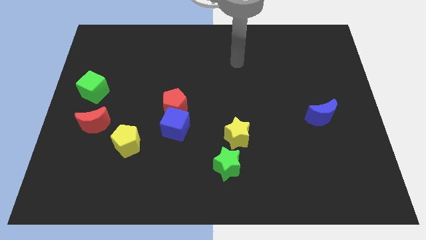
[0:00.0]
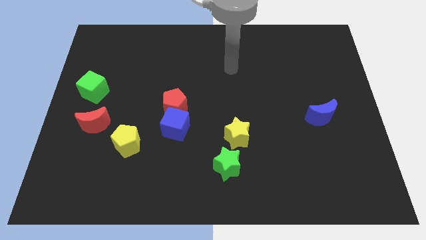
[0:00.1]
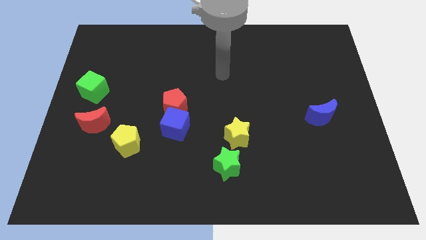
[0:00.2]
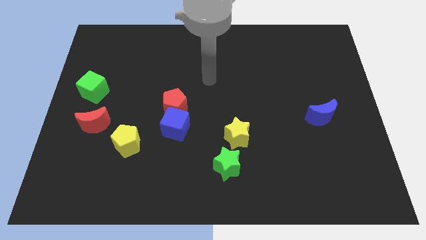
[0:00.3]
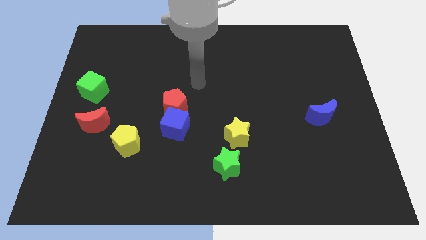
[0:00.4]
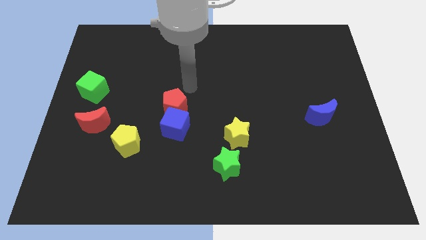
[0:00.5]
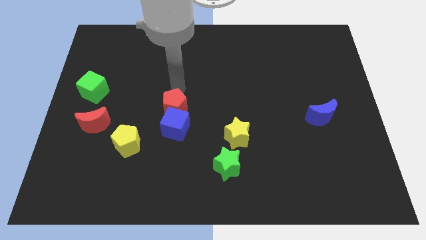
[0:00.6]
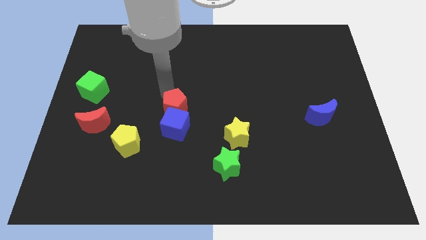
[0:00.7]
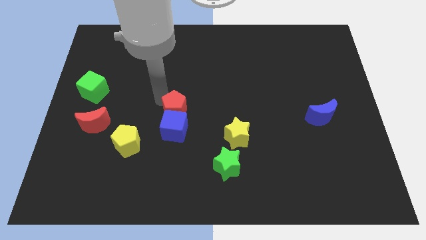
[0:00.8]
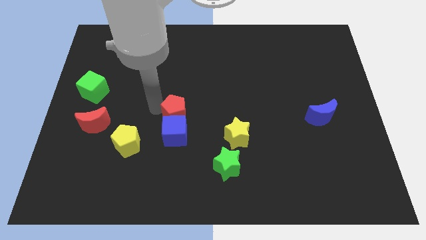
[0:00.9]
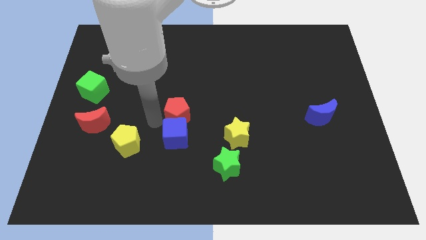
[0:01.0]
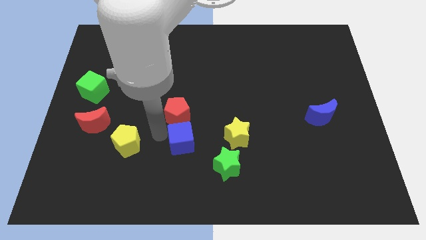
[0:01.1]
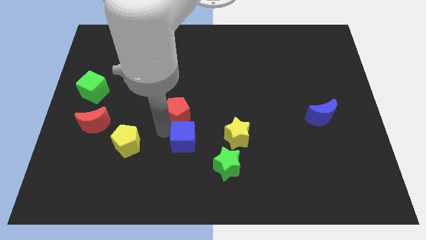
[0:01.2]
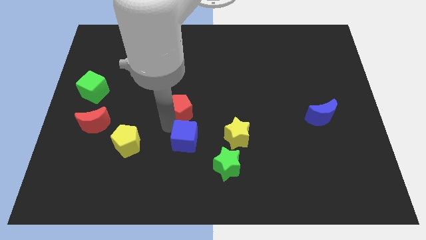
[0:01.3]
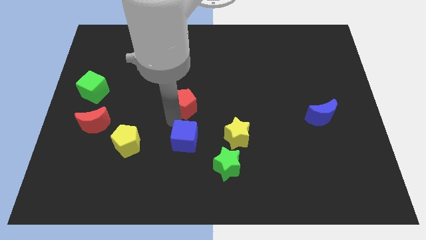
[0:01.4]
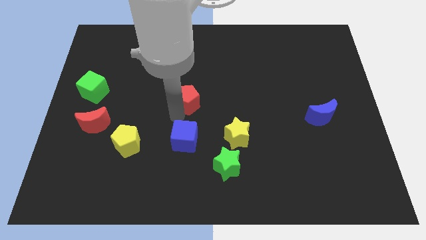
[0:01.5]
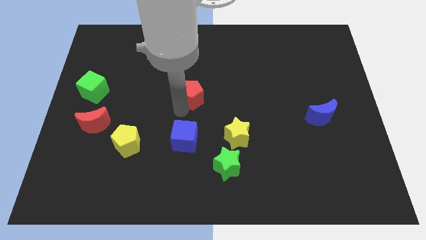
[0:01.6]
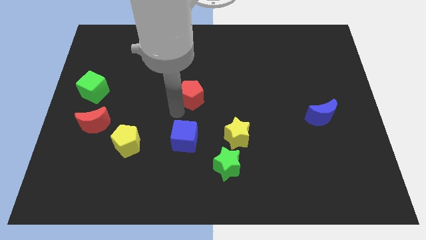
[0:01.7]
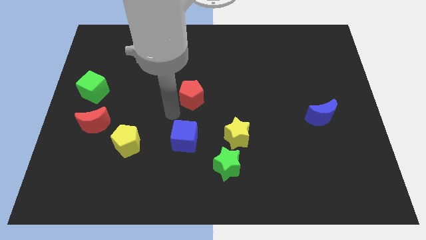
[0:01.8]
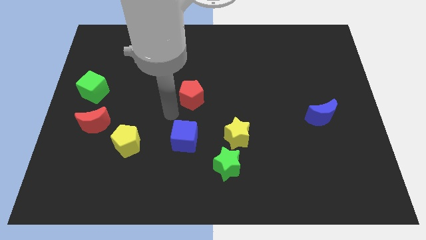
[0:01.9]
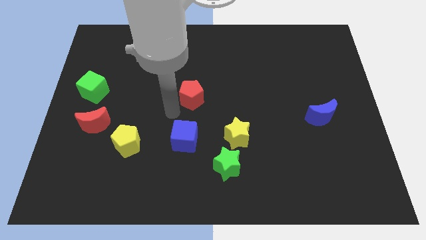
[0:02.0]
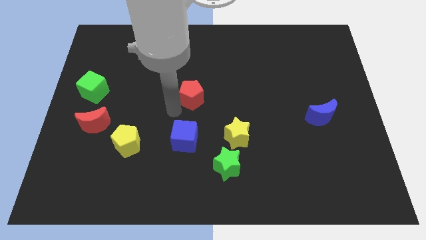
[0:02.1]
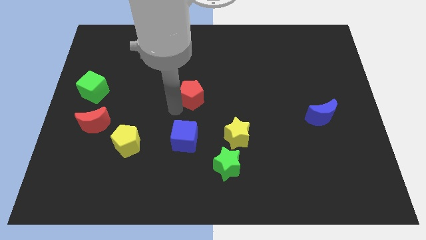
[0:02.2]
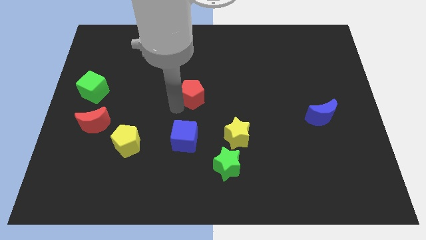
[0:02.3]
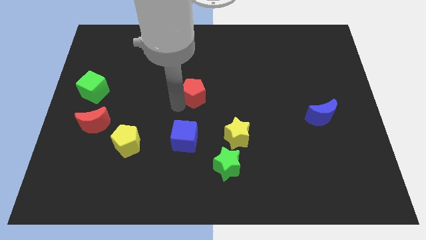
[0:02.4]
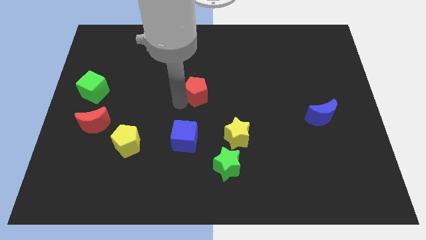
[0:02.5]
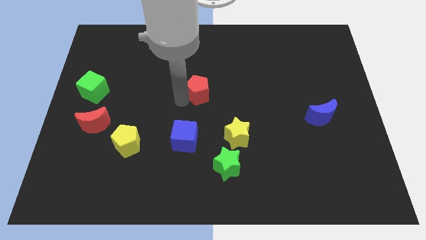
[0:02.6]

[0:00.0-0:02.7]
push the red pentagon diagonally upwards and to the right a little bit

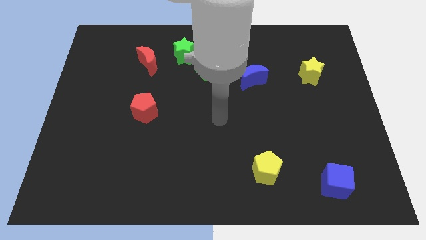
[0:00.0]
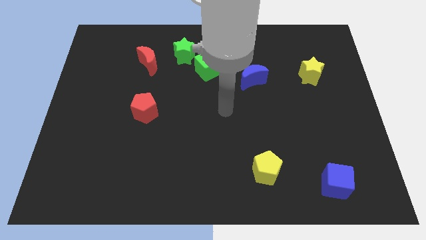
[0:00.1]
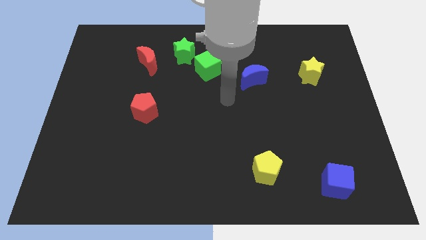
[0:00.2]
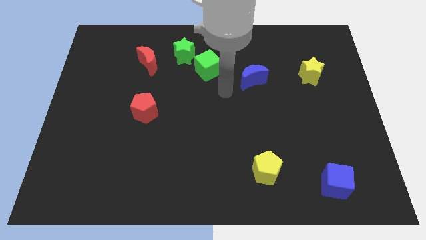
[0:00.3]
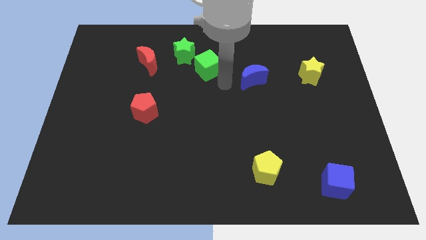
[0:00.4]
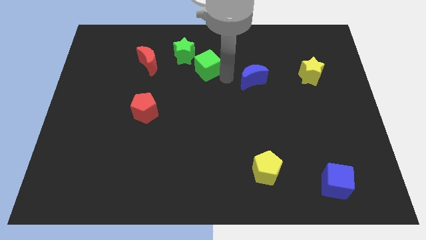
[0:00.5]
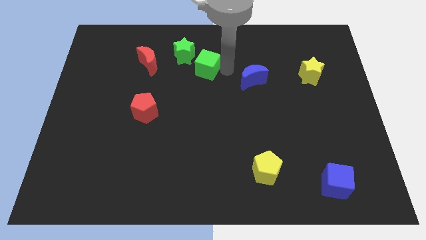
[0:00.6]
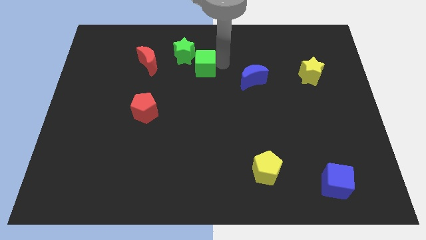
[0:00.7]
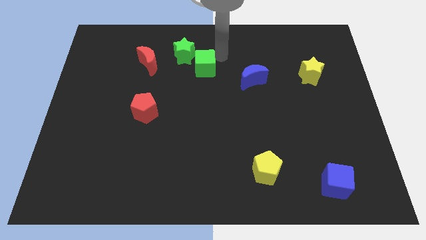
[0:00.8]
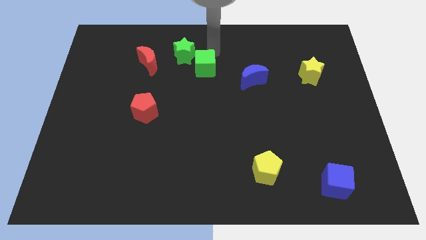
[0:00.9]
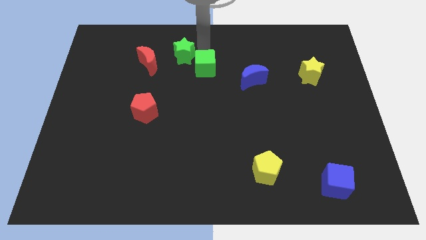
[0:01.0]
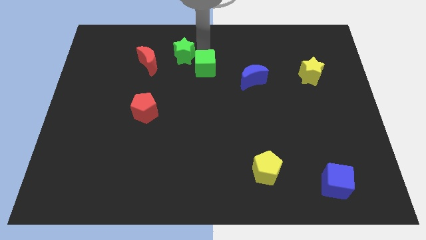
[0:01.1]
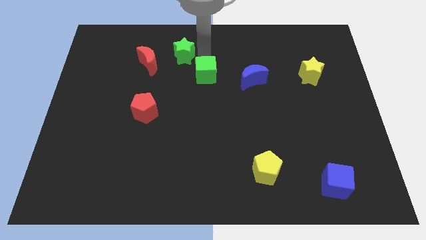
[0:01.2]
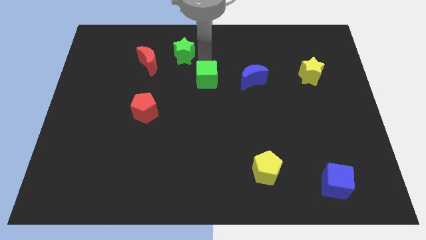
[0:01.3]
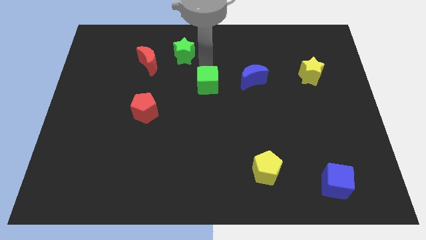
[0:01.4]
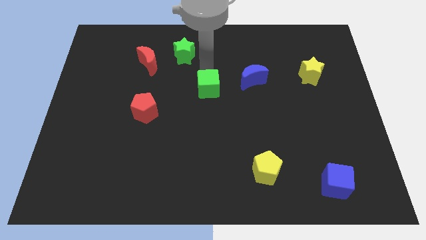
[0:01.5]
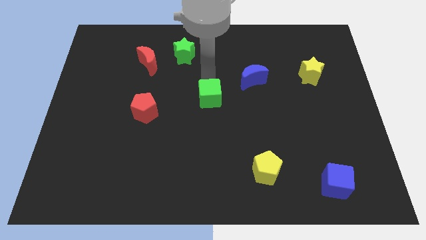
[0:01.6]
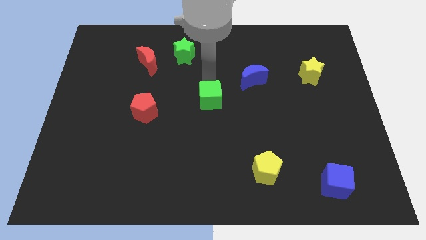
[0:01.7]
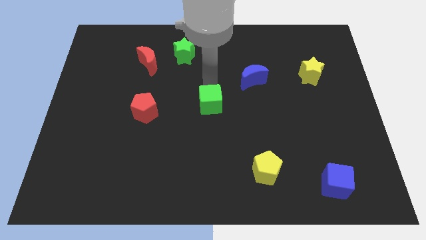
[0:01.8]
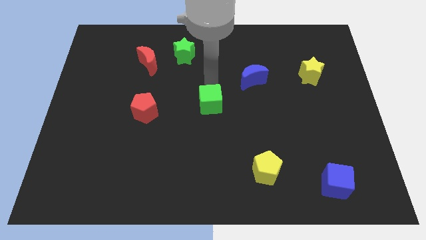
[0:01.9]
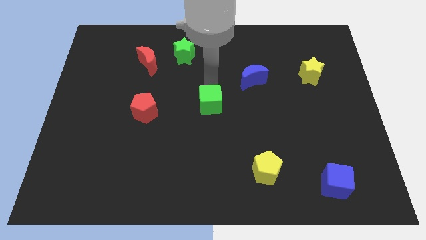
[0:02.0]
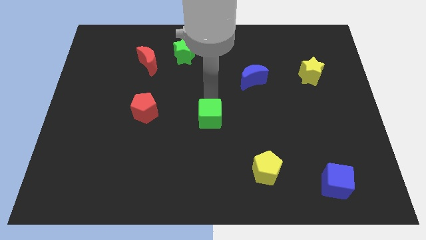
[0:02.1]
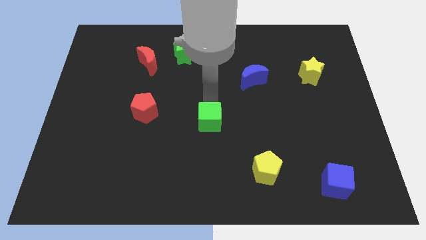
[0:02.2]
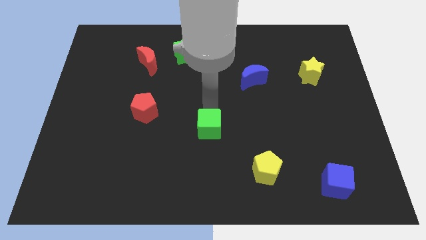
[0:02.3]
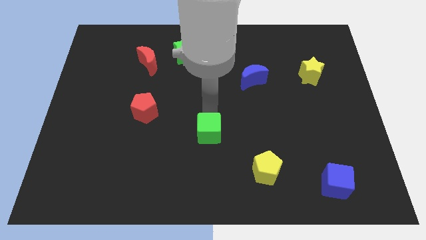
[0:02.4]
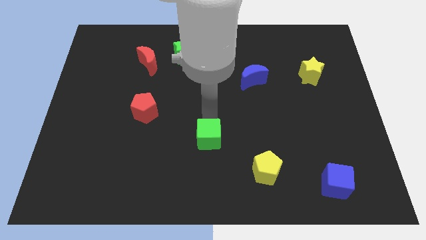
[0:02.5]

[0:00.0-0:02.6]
push the green cube downwards

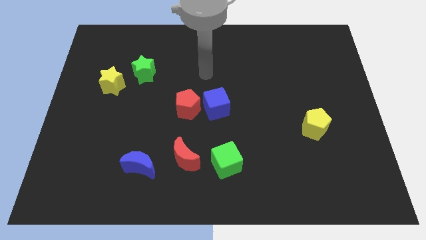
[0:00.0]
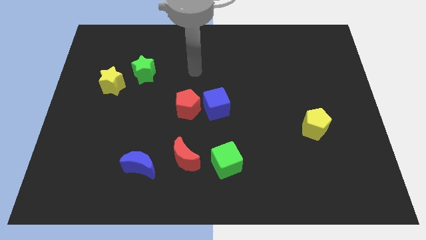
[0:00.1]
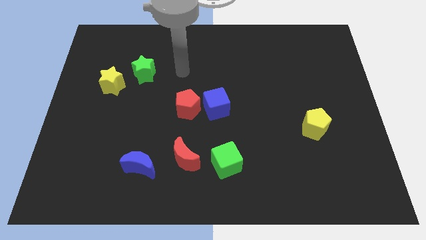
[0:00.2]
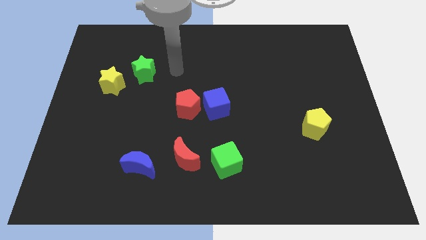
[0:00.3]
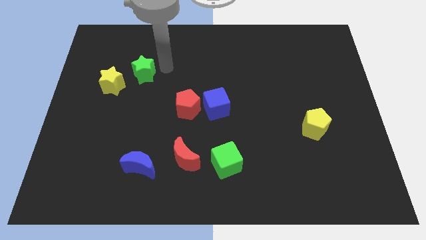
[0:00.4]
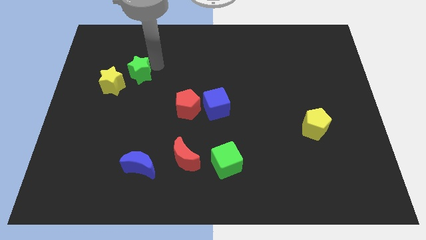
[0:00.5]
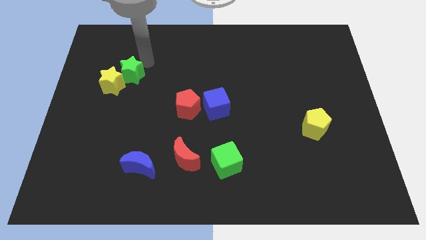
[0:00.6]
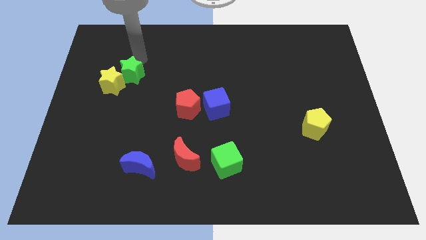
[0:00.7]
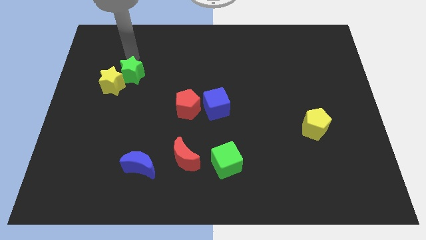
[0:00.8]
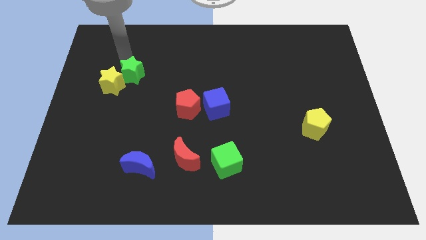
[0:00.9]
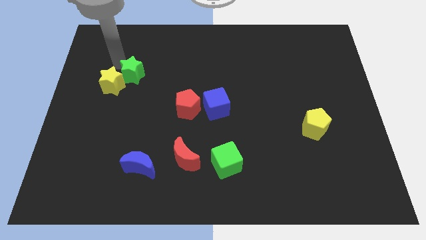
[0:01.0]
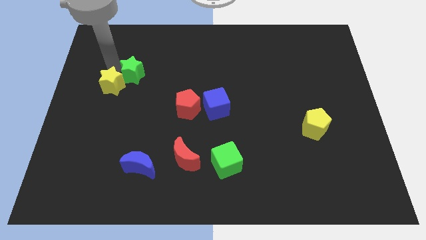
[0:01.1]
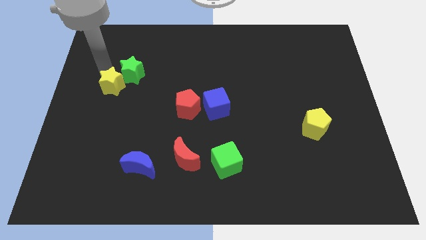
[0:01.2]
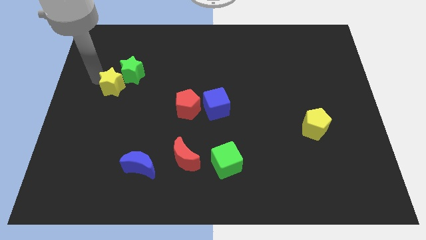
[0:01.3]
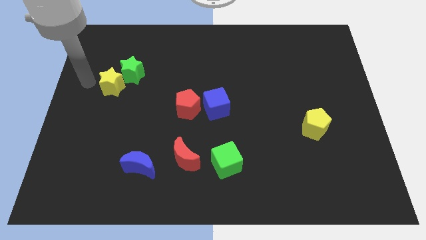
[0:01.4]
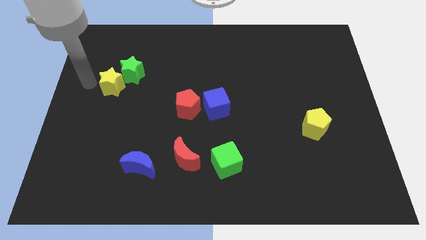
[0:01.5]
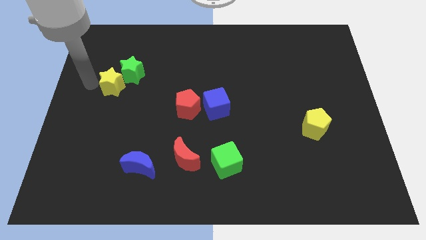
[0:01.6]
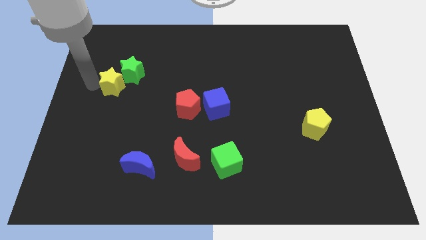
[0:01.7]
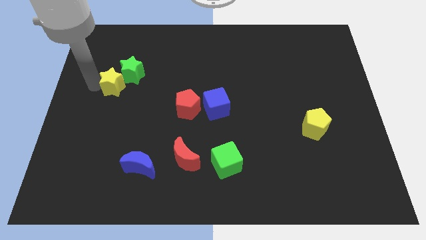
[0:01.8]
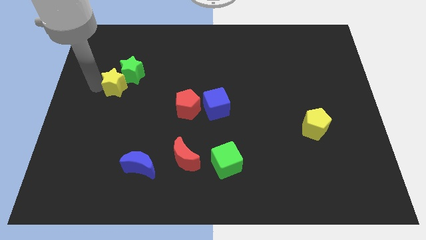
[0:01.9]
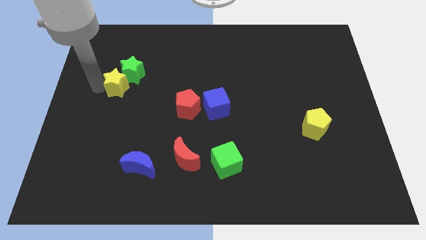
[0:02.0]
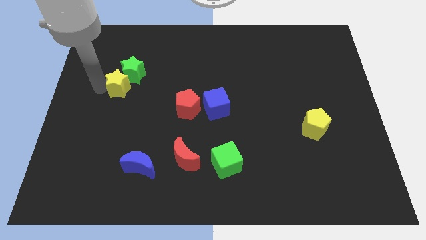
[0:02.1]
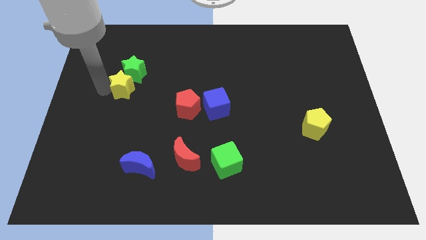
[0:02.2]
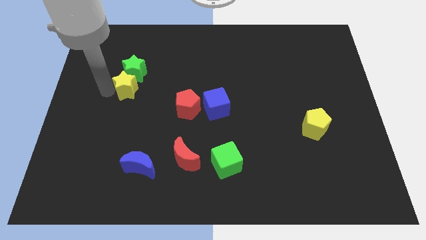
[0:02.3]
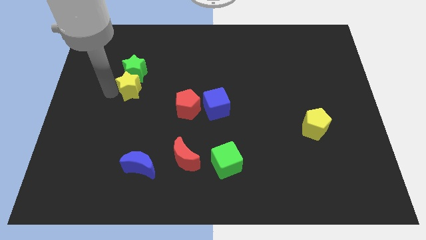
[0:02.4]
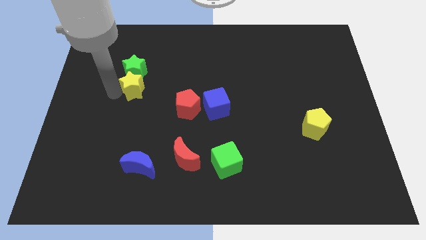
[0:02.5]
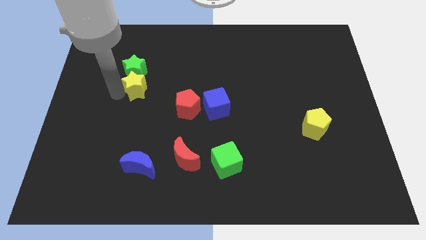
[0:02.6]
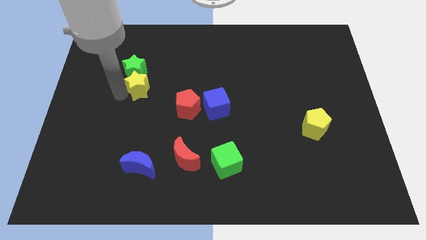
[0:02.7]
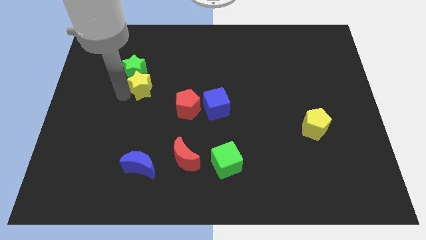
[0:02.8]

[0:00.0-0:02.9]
slightly slide the yellow star to the right

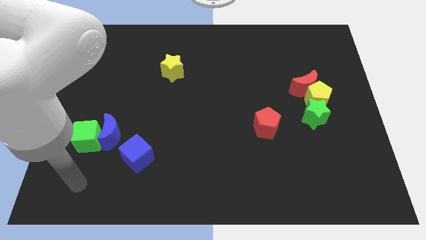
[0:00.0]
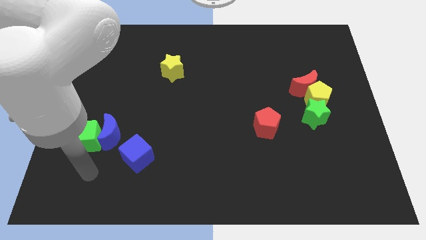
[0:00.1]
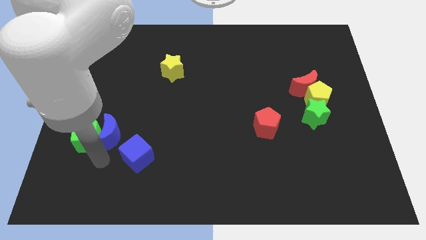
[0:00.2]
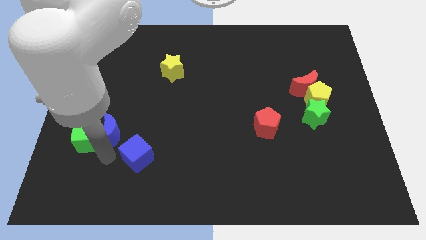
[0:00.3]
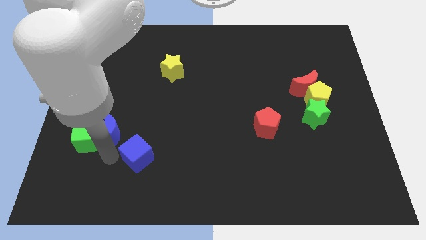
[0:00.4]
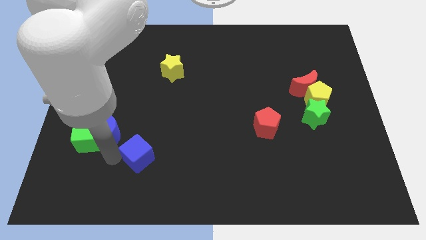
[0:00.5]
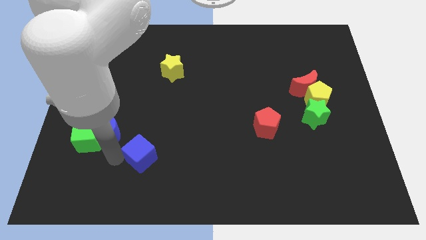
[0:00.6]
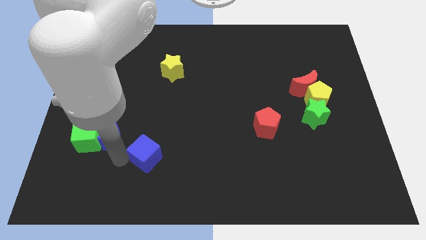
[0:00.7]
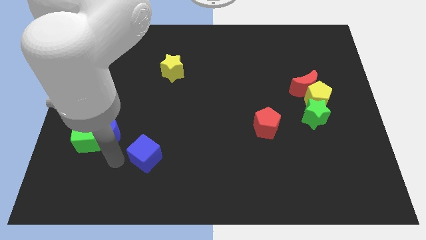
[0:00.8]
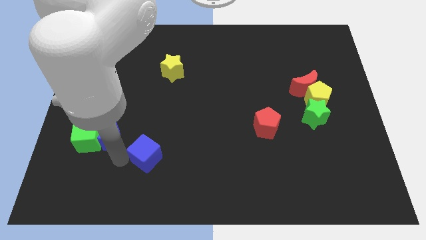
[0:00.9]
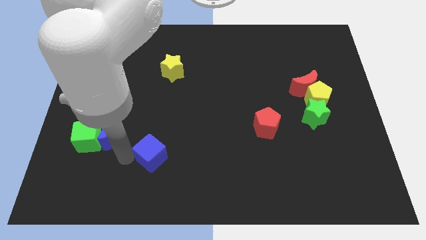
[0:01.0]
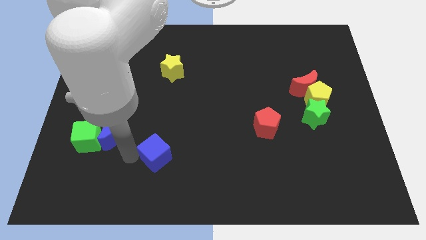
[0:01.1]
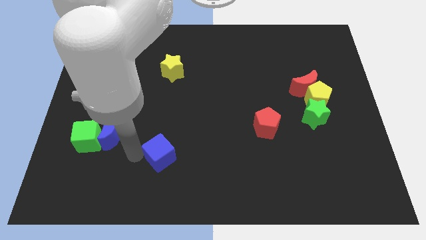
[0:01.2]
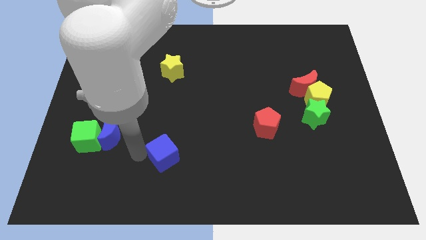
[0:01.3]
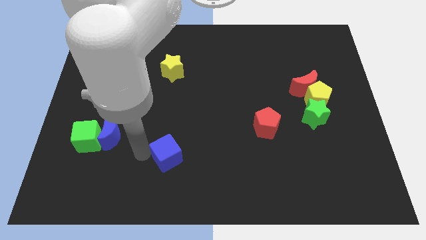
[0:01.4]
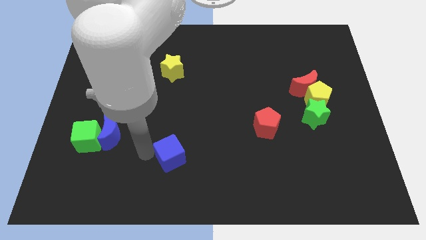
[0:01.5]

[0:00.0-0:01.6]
push the blue cube a little bit right
